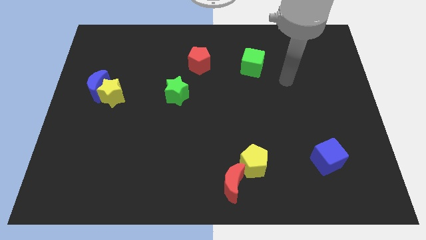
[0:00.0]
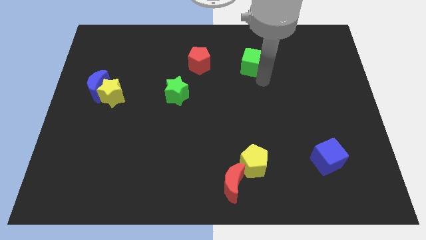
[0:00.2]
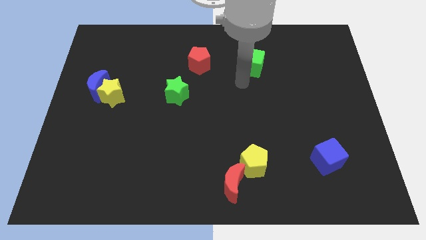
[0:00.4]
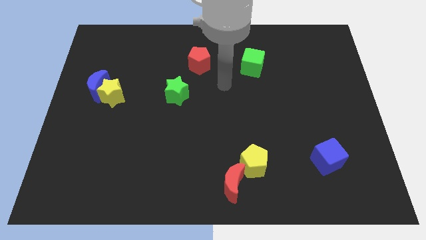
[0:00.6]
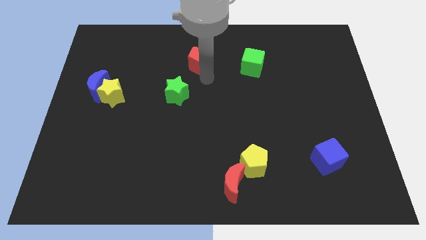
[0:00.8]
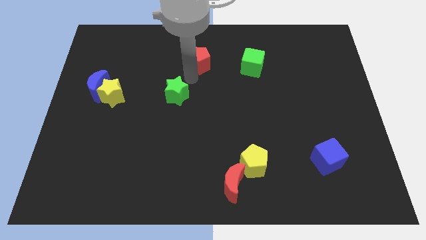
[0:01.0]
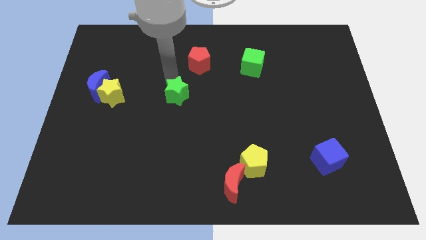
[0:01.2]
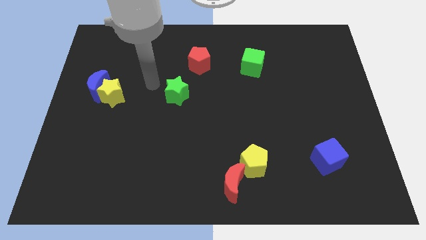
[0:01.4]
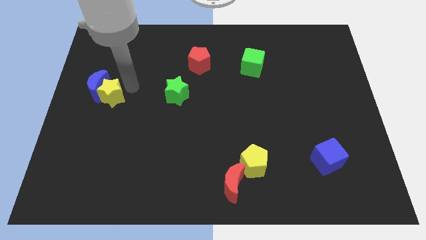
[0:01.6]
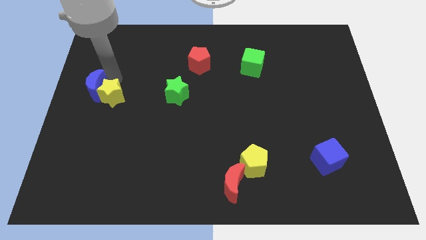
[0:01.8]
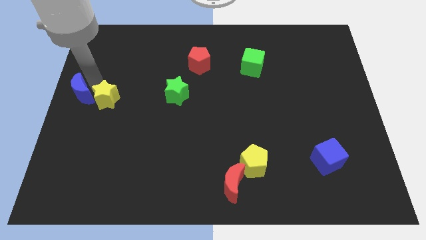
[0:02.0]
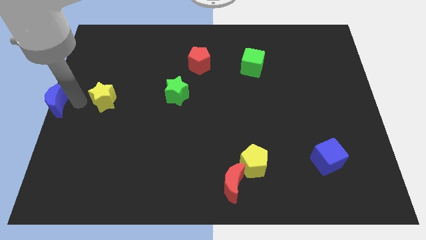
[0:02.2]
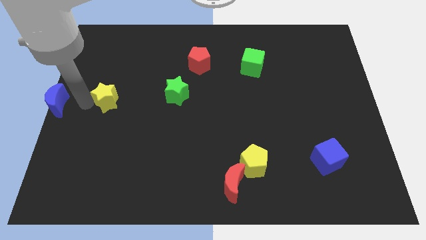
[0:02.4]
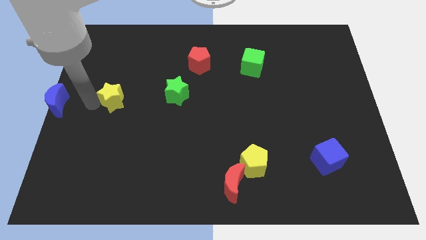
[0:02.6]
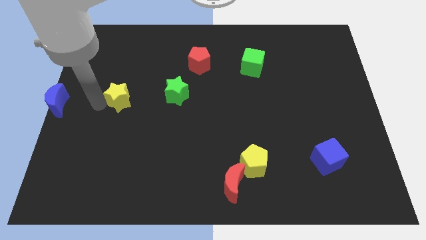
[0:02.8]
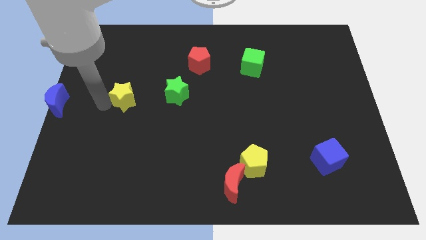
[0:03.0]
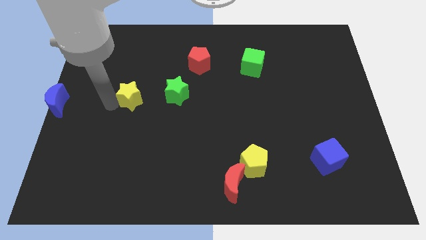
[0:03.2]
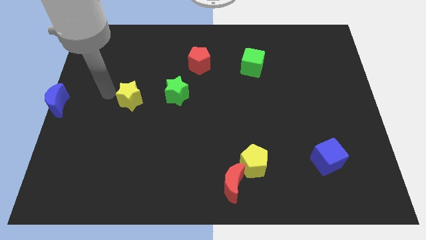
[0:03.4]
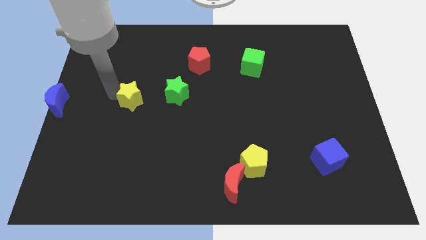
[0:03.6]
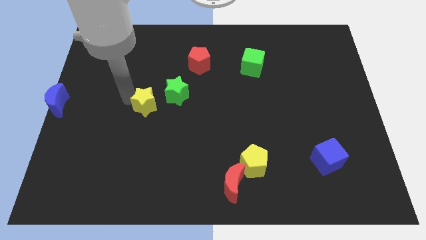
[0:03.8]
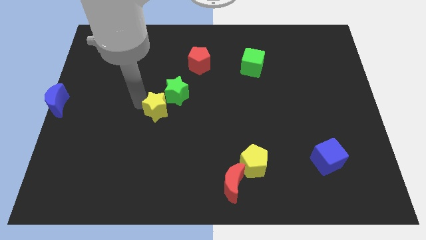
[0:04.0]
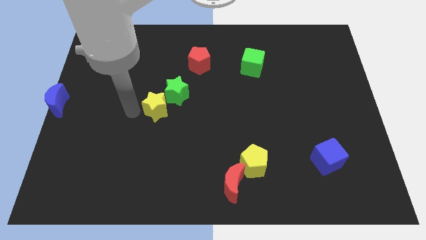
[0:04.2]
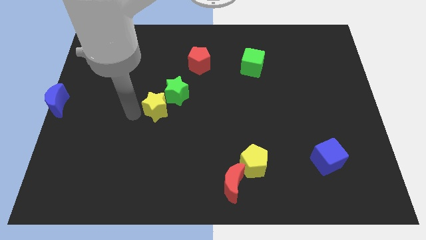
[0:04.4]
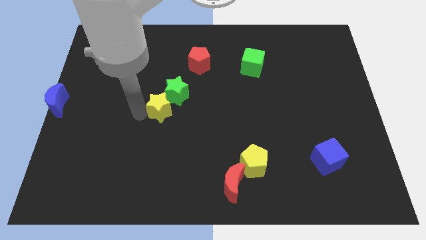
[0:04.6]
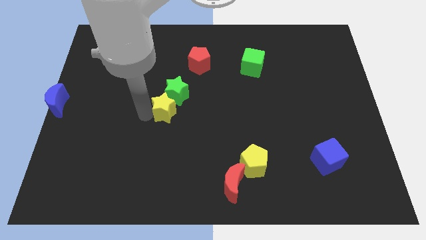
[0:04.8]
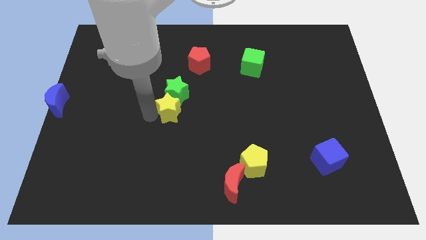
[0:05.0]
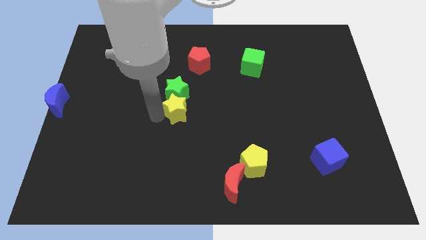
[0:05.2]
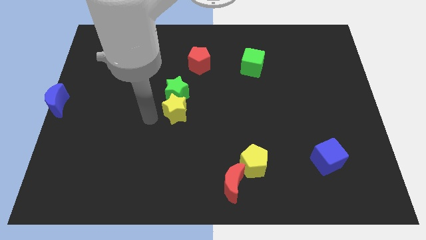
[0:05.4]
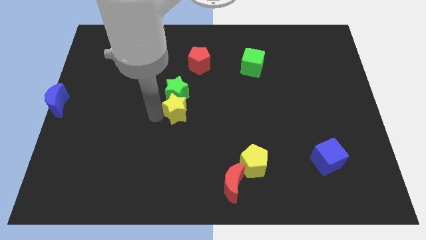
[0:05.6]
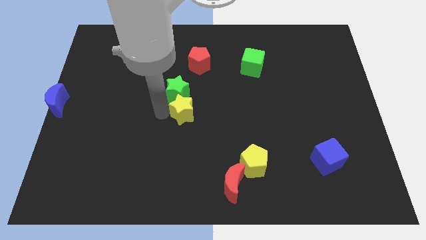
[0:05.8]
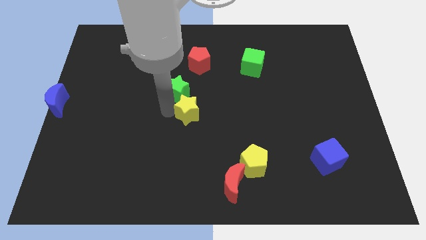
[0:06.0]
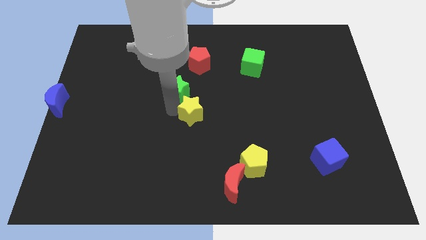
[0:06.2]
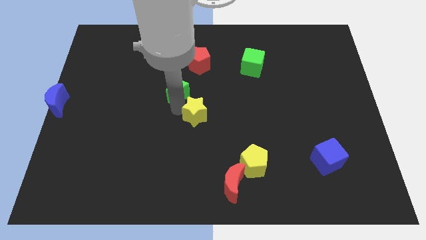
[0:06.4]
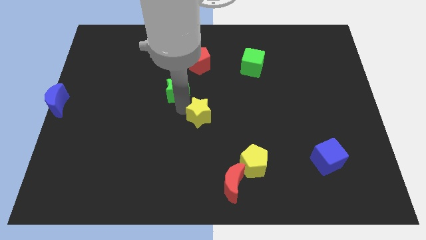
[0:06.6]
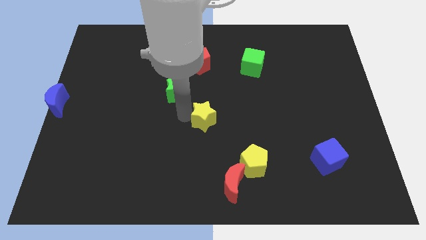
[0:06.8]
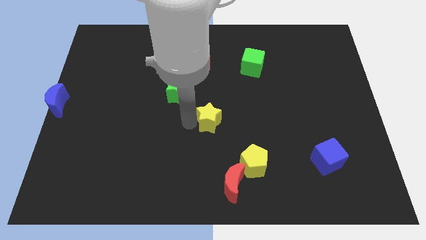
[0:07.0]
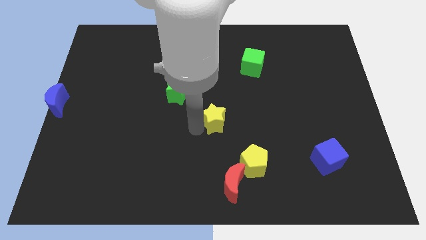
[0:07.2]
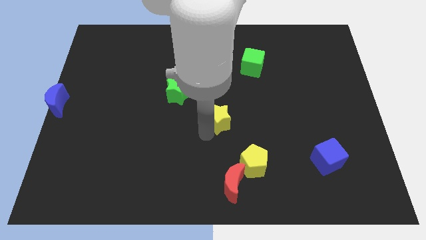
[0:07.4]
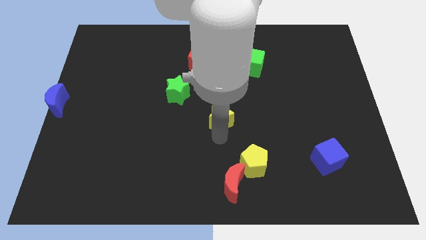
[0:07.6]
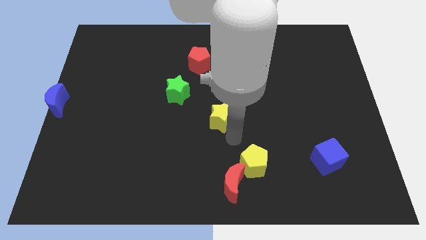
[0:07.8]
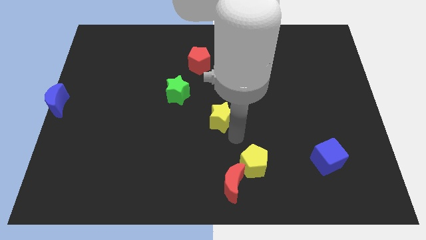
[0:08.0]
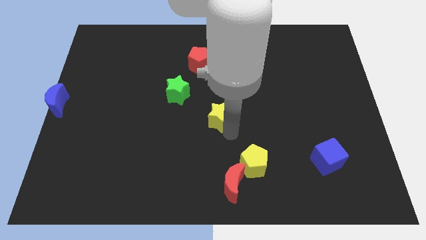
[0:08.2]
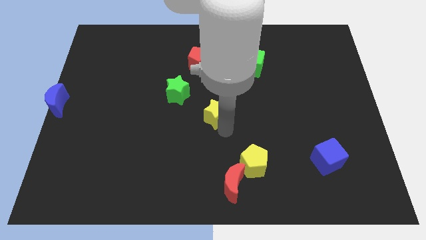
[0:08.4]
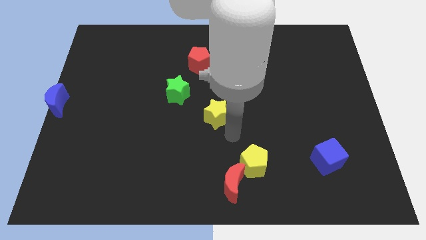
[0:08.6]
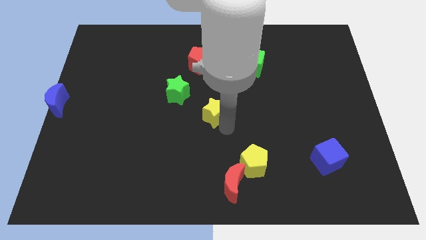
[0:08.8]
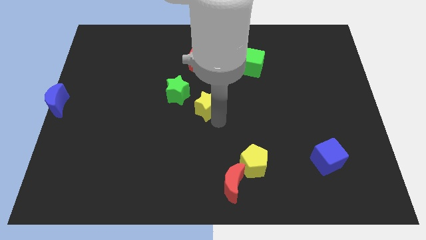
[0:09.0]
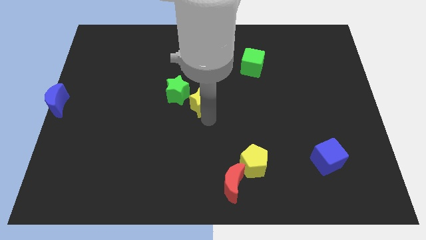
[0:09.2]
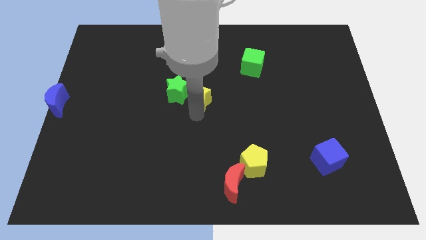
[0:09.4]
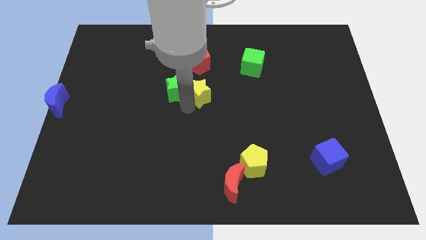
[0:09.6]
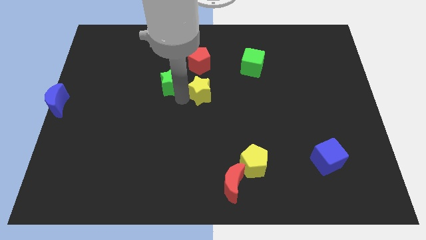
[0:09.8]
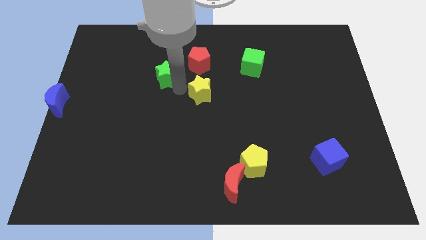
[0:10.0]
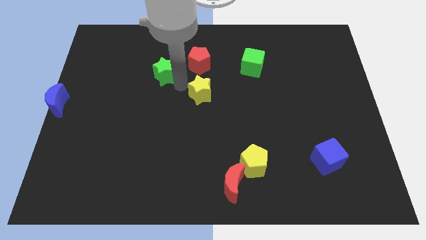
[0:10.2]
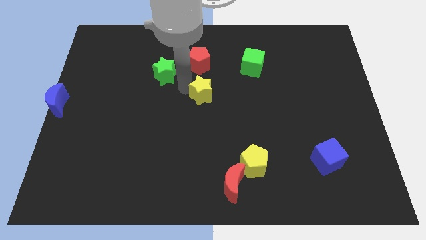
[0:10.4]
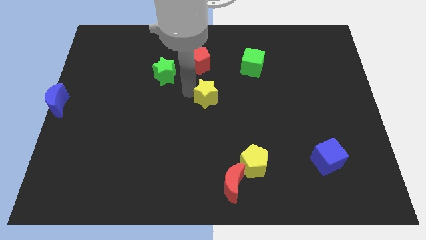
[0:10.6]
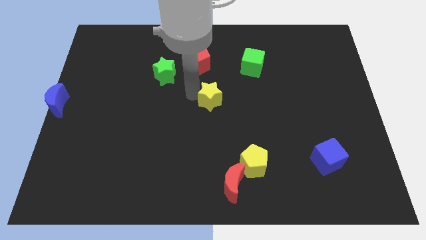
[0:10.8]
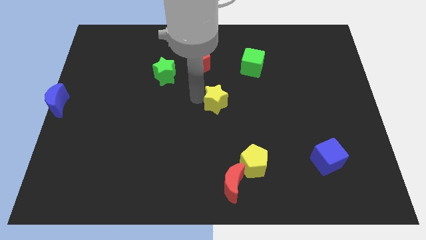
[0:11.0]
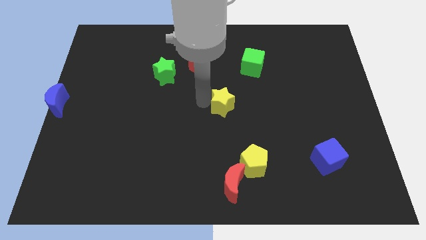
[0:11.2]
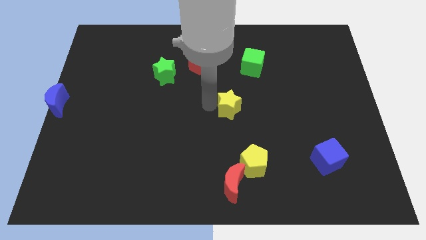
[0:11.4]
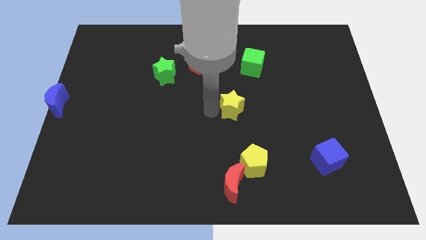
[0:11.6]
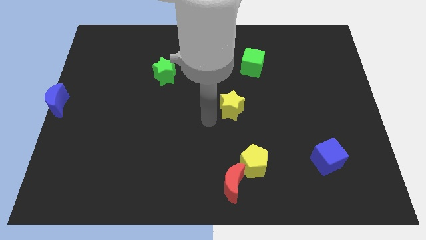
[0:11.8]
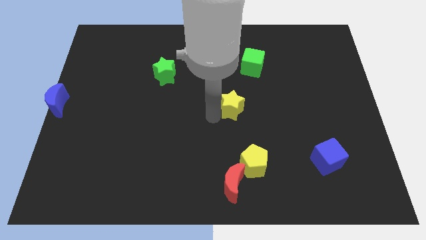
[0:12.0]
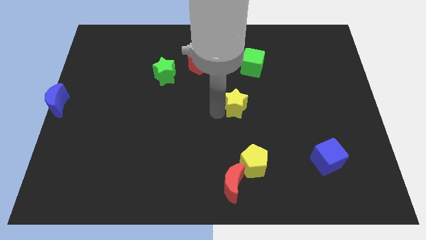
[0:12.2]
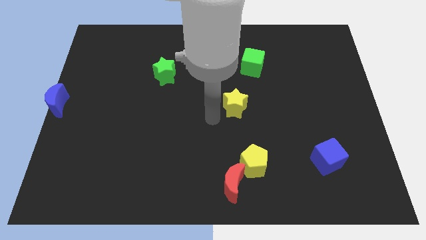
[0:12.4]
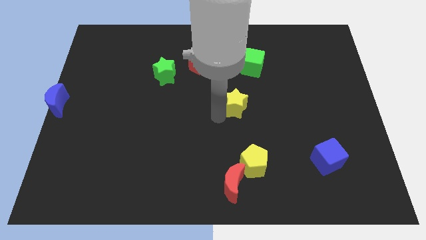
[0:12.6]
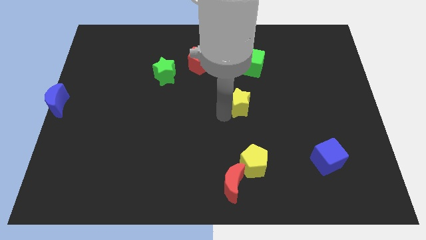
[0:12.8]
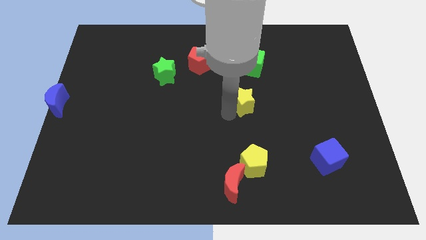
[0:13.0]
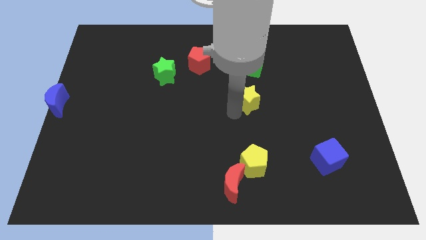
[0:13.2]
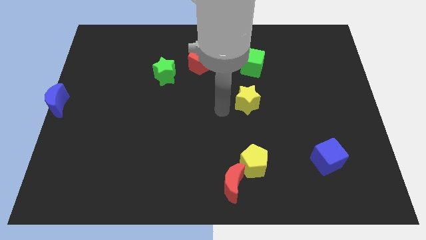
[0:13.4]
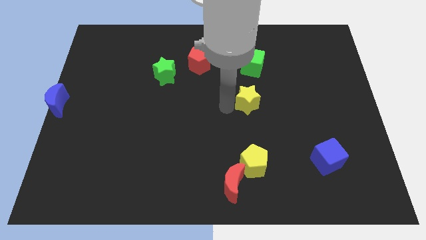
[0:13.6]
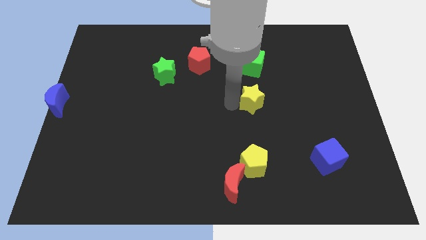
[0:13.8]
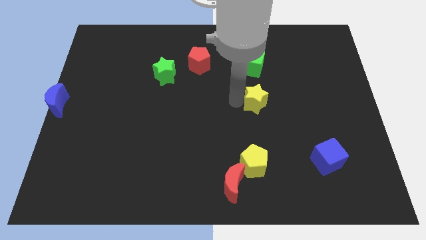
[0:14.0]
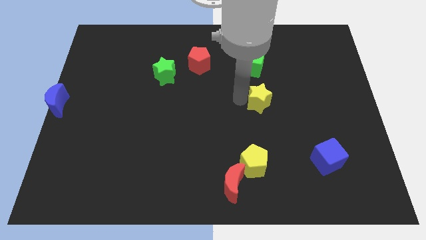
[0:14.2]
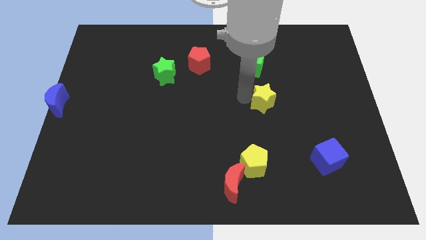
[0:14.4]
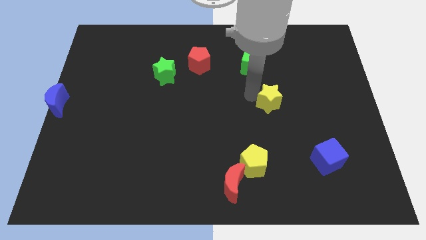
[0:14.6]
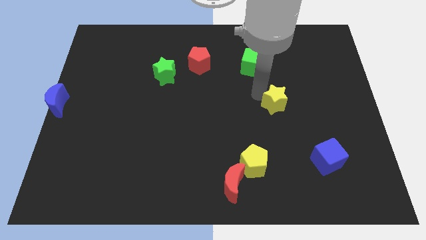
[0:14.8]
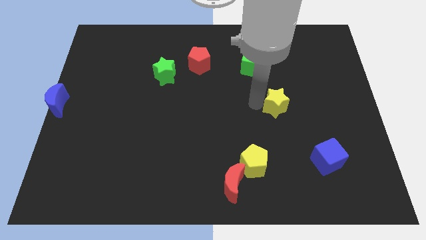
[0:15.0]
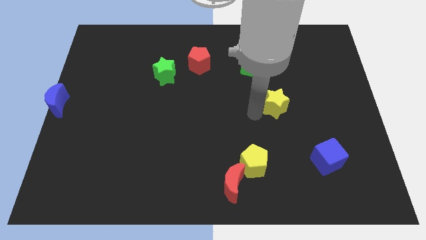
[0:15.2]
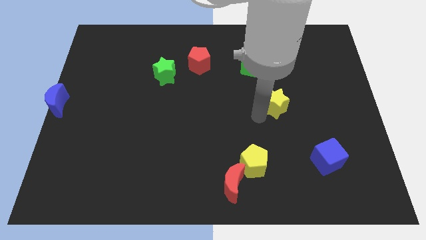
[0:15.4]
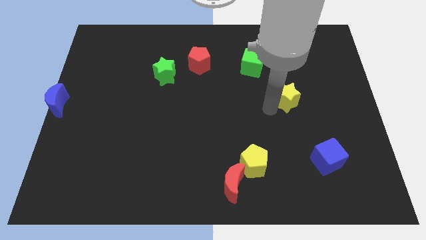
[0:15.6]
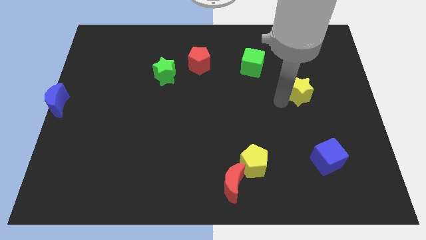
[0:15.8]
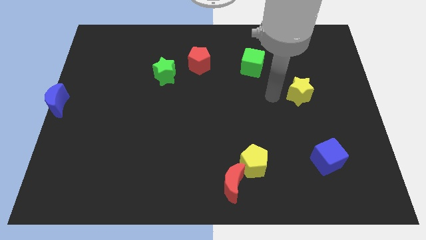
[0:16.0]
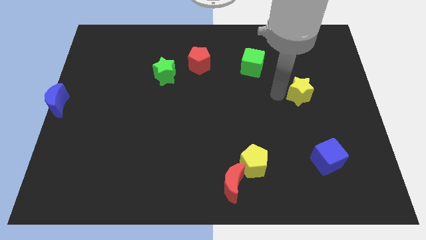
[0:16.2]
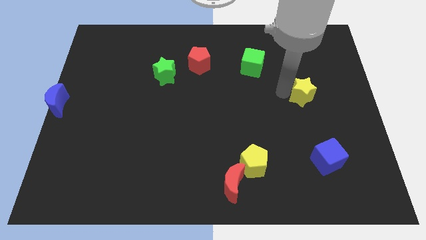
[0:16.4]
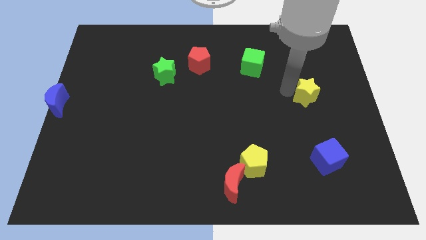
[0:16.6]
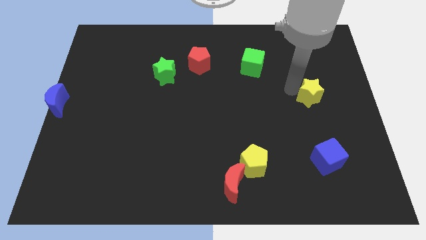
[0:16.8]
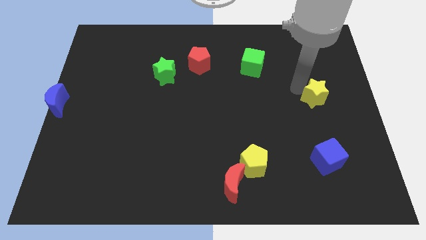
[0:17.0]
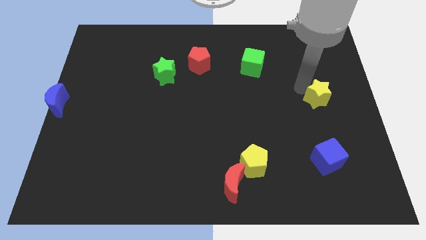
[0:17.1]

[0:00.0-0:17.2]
move the yellow star to the right side of the board
